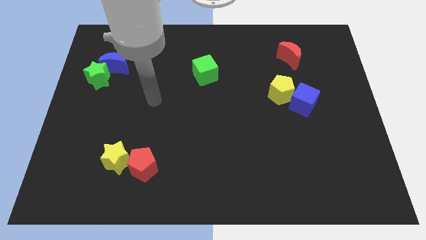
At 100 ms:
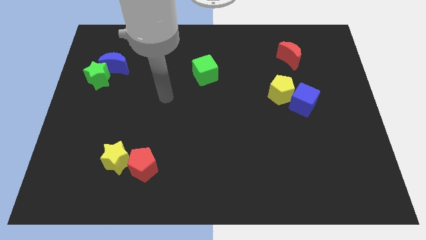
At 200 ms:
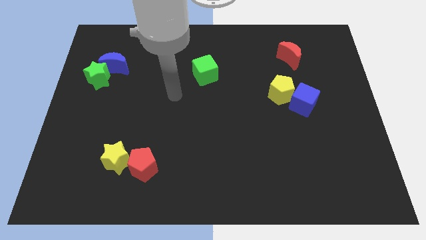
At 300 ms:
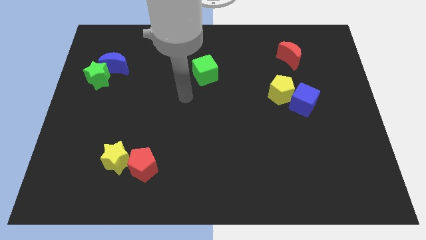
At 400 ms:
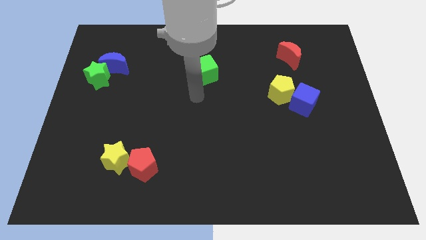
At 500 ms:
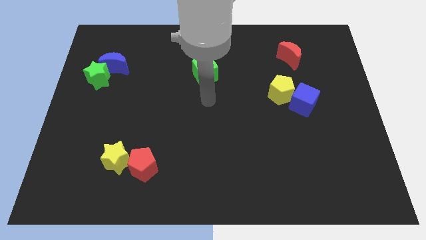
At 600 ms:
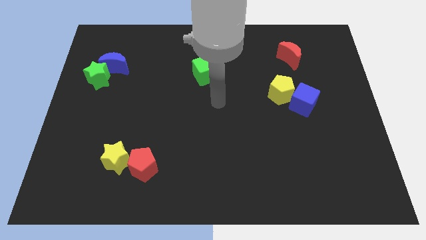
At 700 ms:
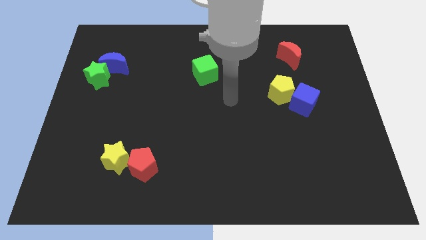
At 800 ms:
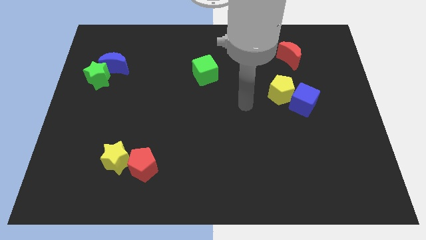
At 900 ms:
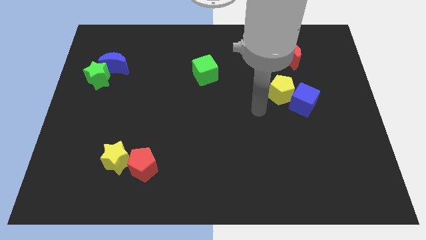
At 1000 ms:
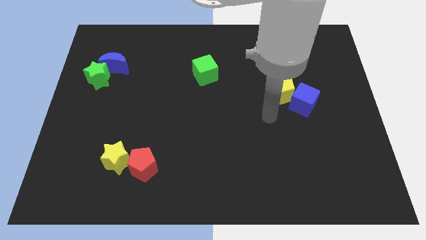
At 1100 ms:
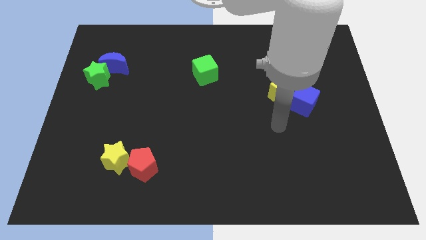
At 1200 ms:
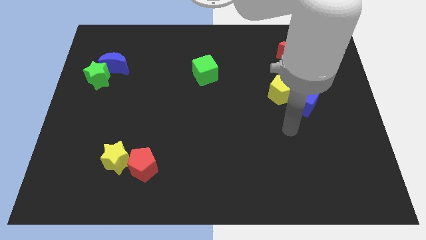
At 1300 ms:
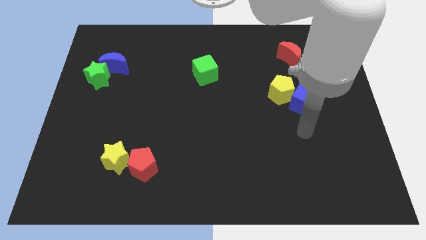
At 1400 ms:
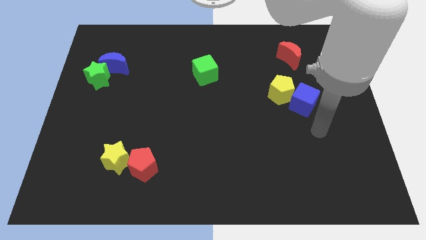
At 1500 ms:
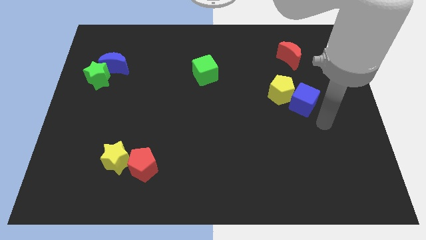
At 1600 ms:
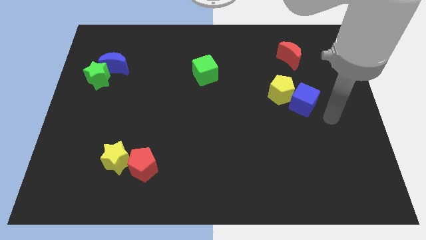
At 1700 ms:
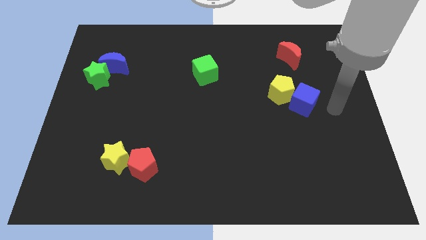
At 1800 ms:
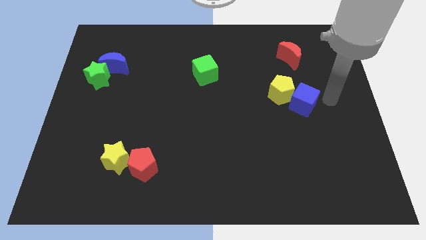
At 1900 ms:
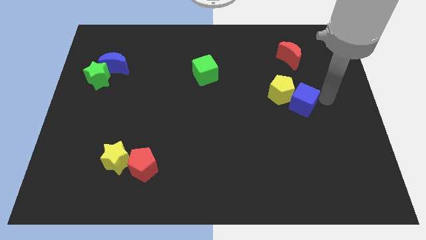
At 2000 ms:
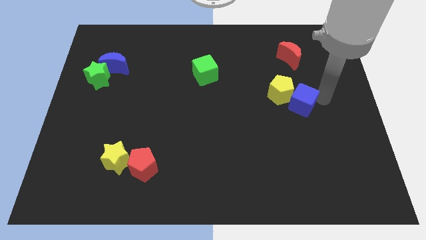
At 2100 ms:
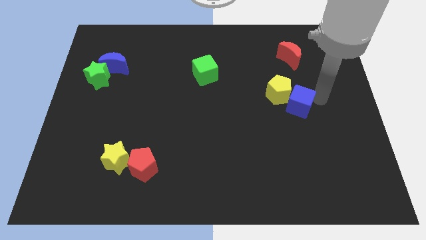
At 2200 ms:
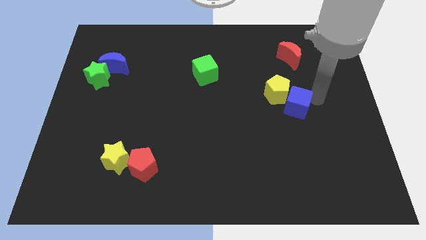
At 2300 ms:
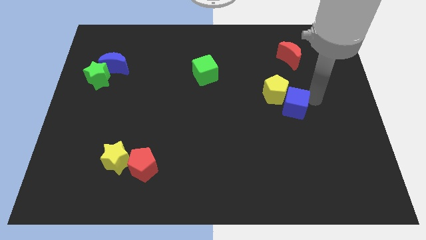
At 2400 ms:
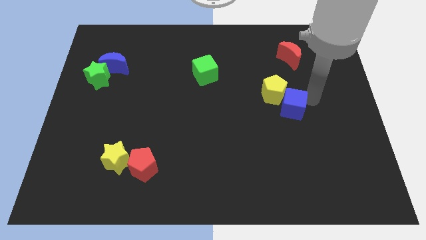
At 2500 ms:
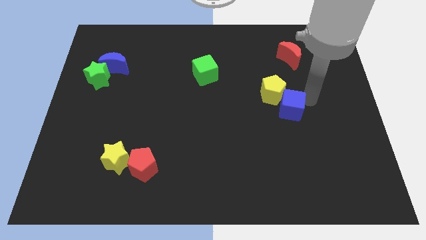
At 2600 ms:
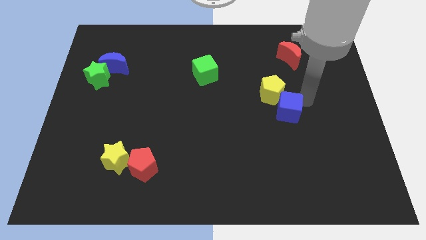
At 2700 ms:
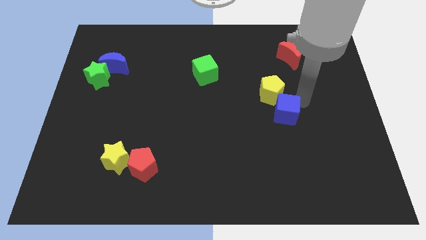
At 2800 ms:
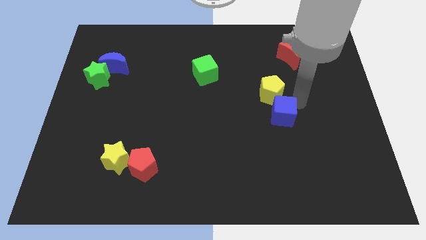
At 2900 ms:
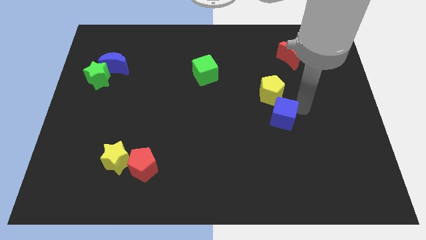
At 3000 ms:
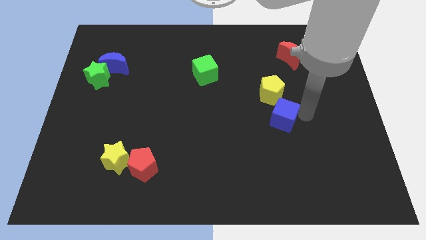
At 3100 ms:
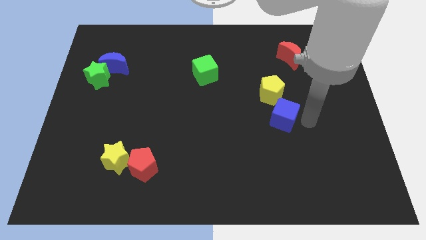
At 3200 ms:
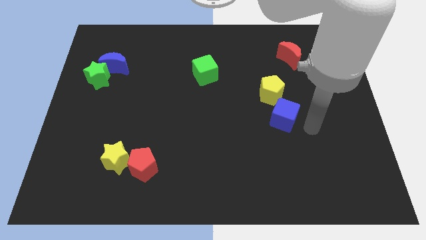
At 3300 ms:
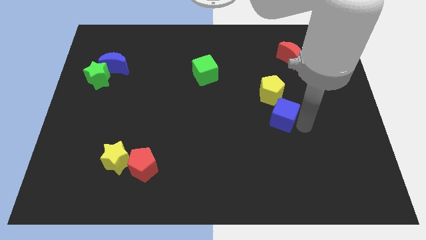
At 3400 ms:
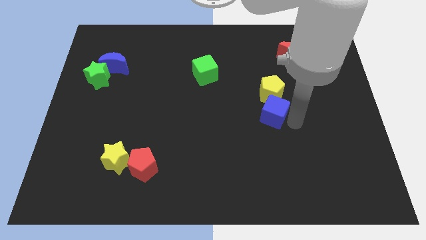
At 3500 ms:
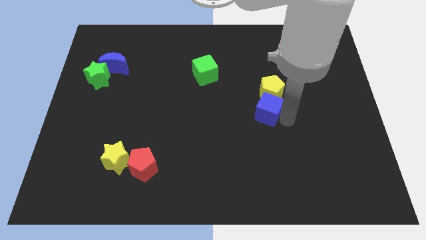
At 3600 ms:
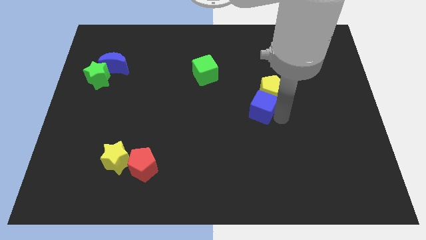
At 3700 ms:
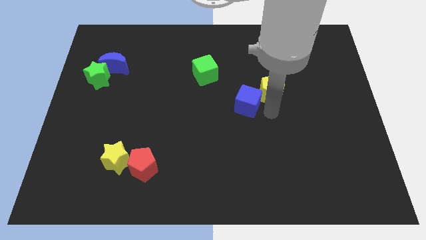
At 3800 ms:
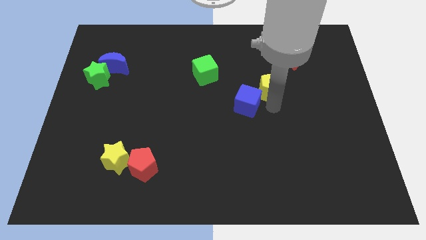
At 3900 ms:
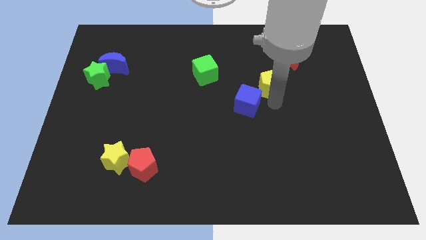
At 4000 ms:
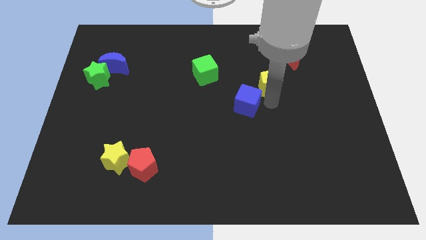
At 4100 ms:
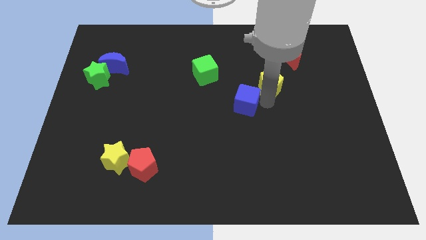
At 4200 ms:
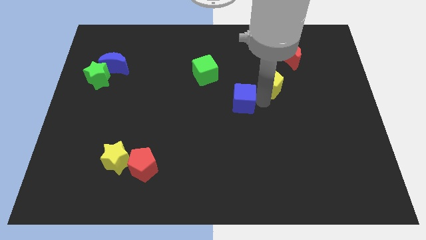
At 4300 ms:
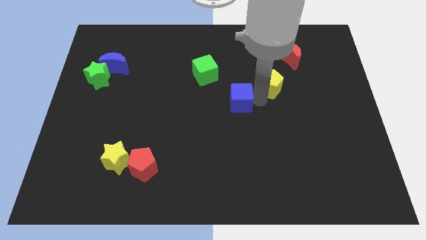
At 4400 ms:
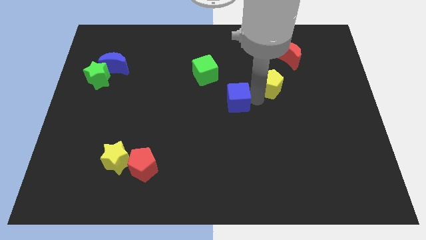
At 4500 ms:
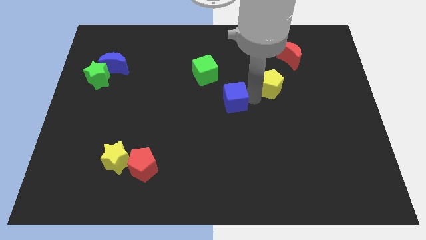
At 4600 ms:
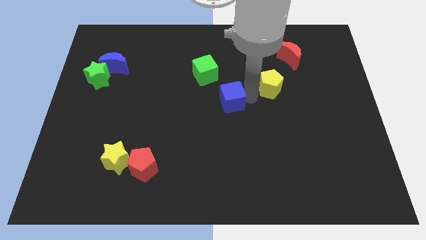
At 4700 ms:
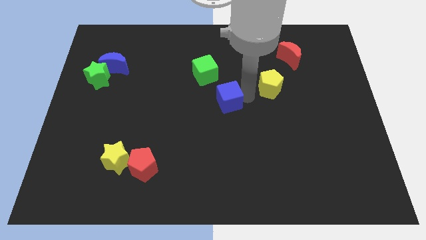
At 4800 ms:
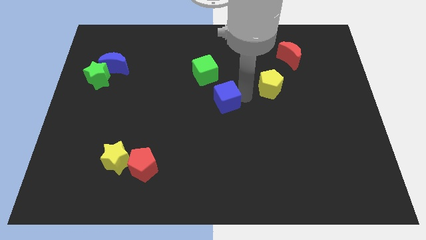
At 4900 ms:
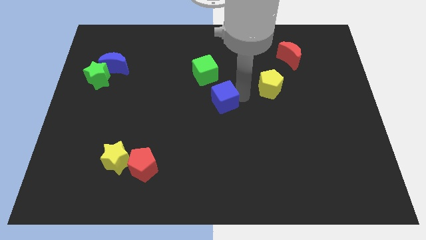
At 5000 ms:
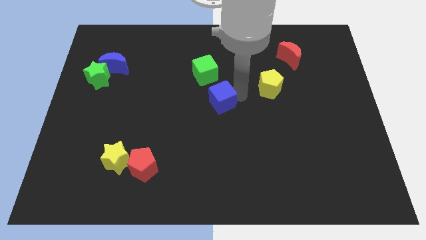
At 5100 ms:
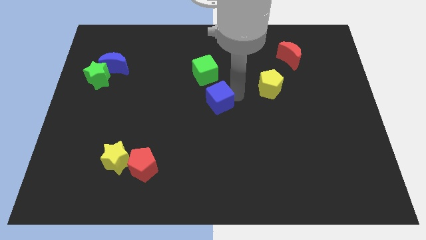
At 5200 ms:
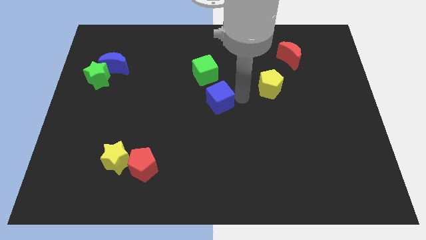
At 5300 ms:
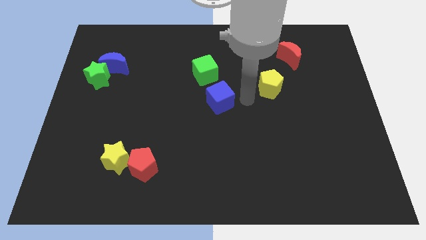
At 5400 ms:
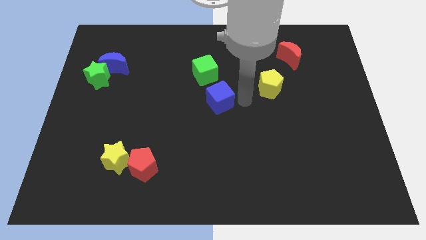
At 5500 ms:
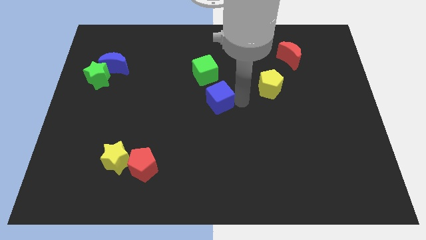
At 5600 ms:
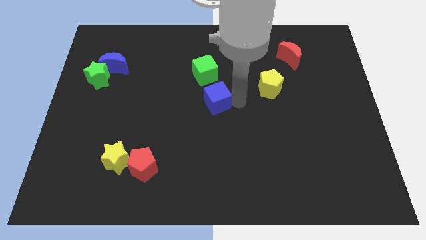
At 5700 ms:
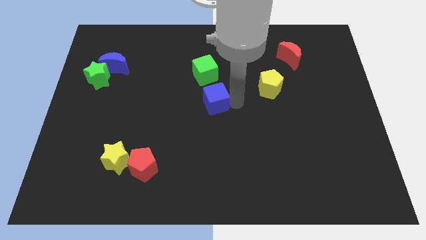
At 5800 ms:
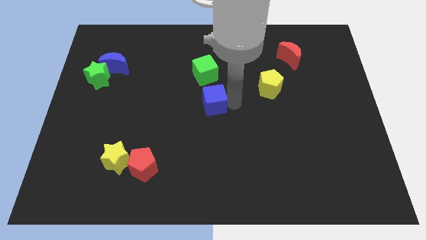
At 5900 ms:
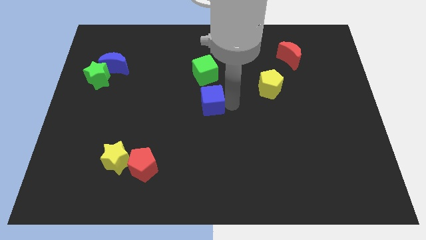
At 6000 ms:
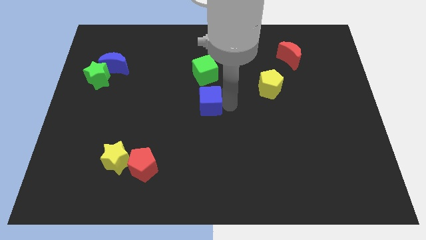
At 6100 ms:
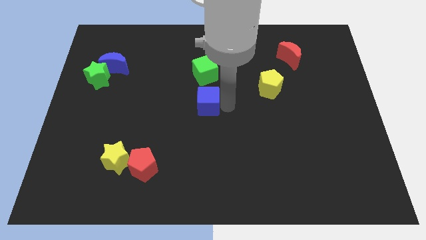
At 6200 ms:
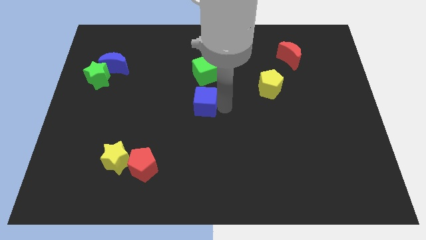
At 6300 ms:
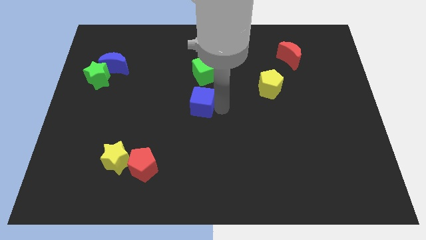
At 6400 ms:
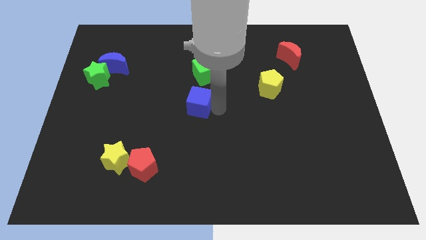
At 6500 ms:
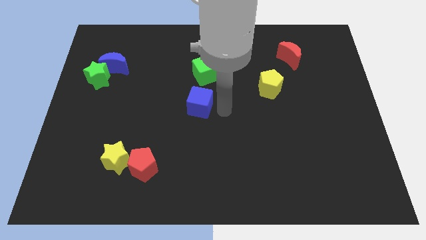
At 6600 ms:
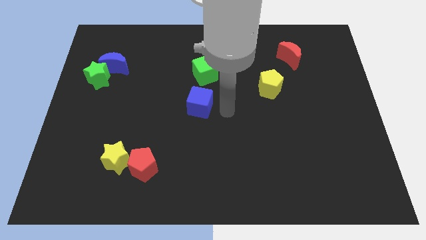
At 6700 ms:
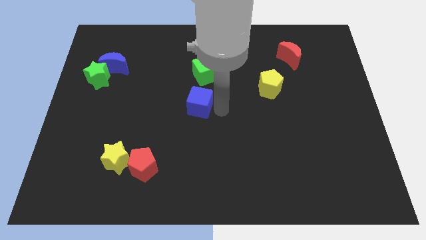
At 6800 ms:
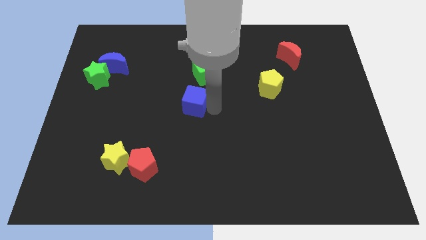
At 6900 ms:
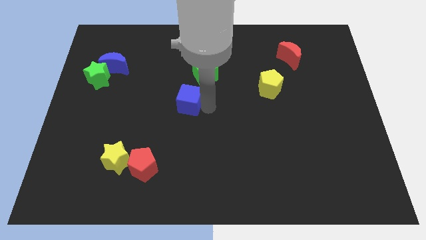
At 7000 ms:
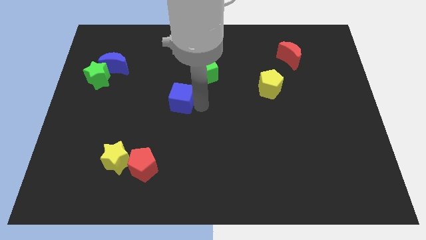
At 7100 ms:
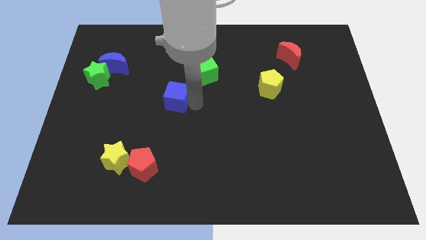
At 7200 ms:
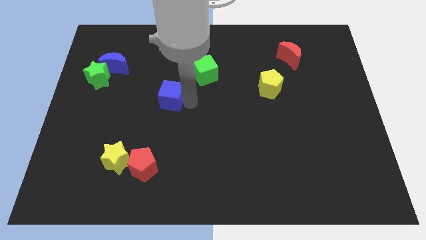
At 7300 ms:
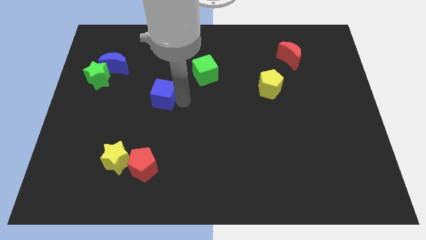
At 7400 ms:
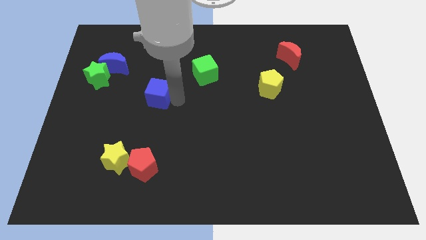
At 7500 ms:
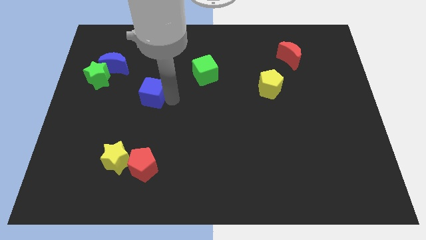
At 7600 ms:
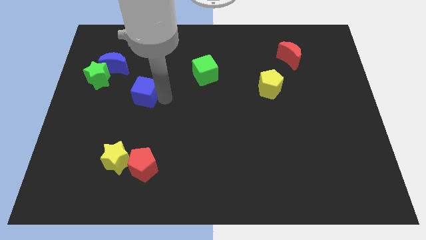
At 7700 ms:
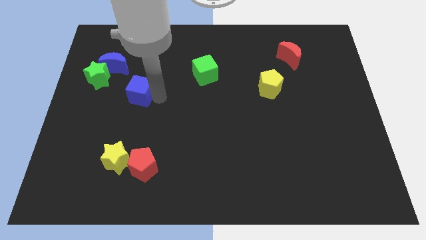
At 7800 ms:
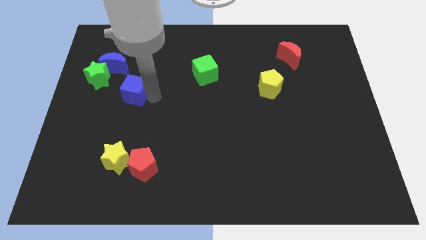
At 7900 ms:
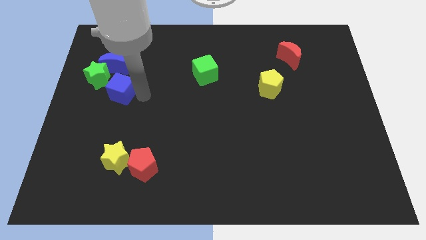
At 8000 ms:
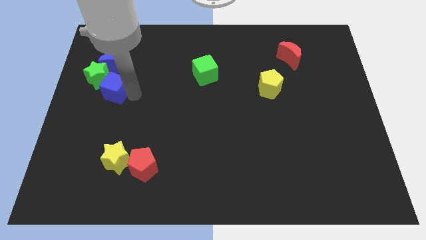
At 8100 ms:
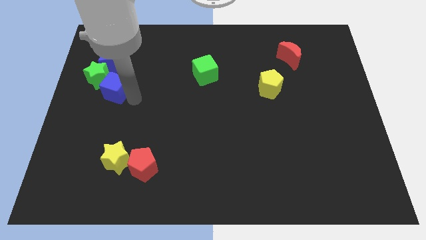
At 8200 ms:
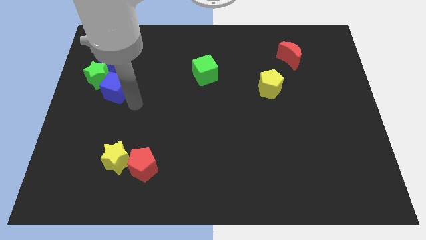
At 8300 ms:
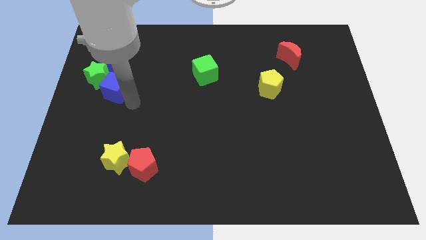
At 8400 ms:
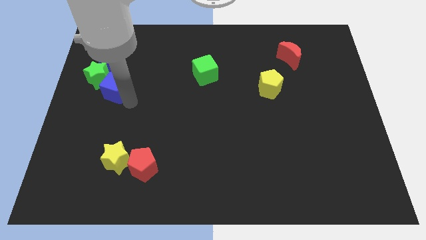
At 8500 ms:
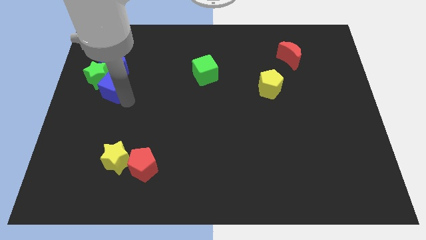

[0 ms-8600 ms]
put the blue cube next to the green star
